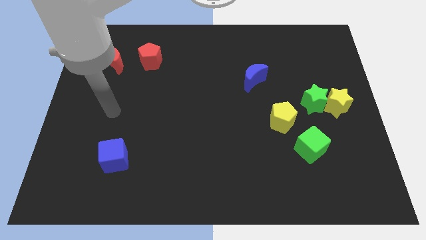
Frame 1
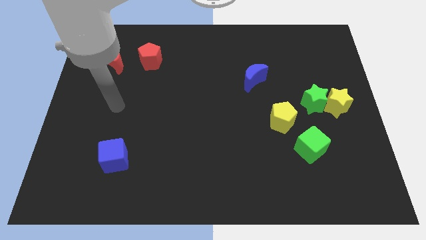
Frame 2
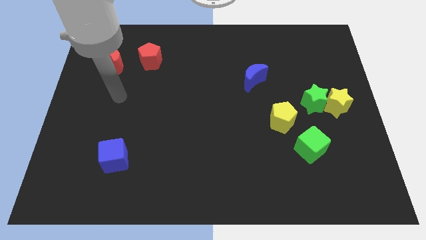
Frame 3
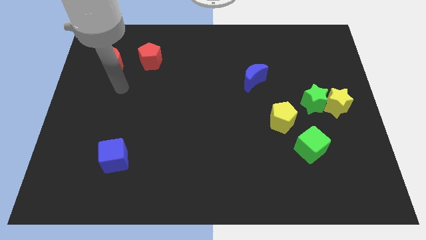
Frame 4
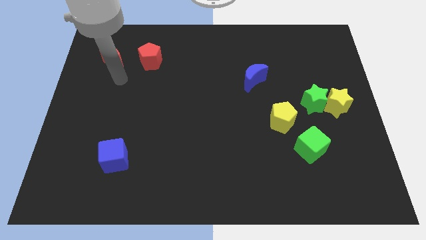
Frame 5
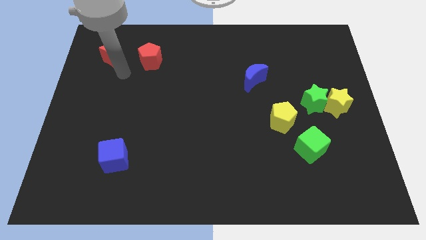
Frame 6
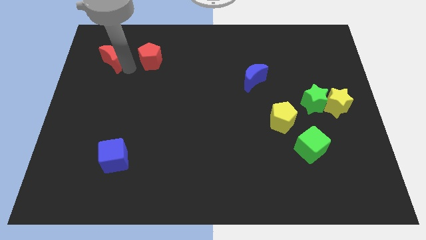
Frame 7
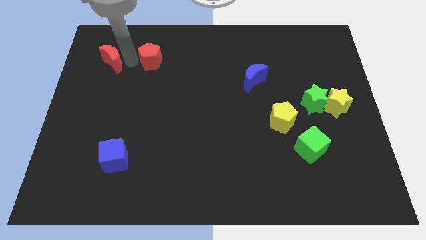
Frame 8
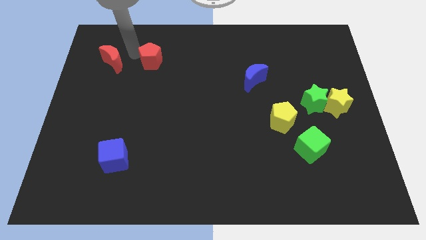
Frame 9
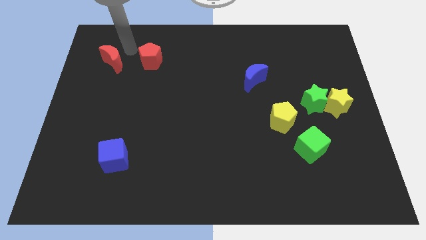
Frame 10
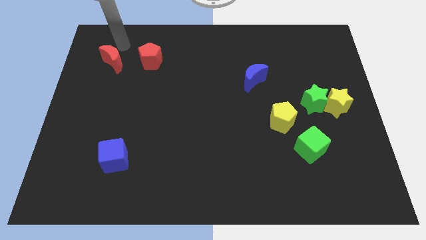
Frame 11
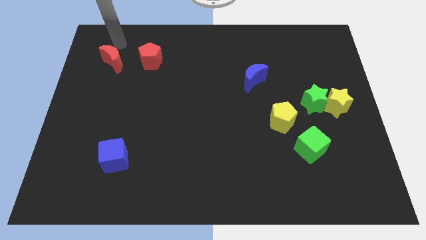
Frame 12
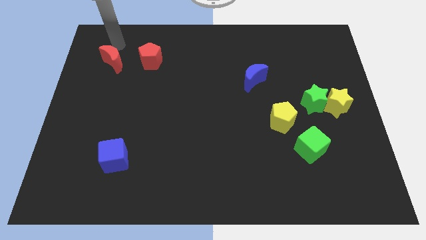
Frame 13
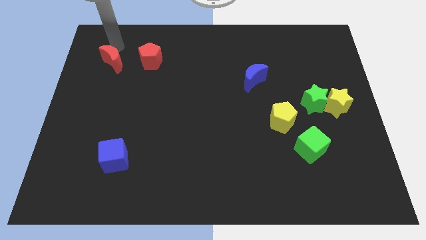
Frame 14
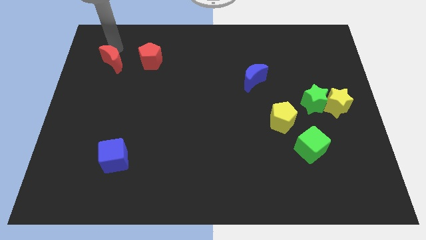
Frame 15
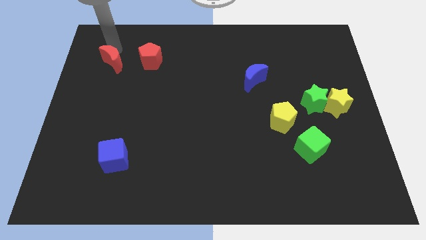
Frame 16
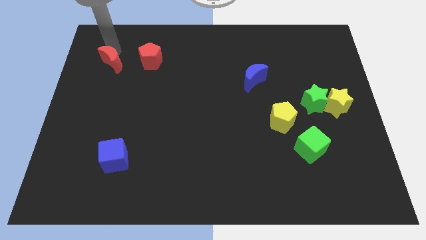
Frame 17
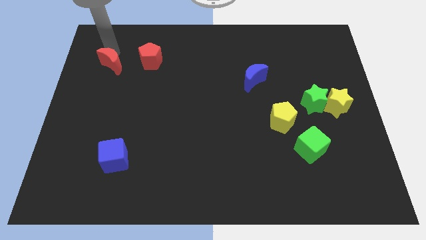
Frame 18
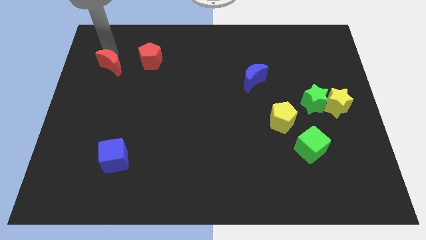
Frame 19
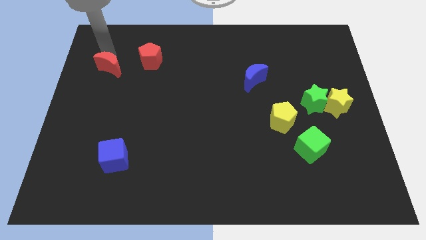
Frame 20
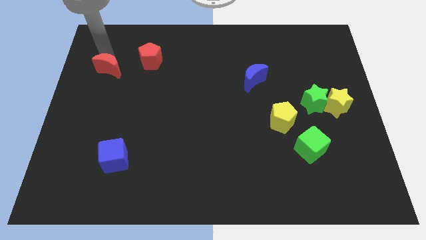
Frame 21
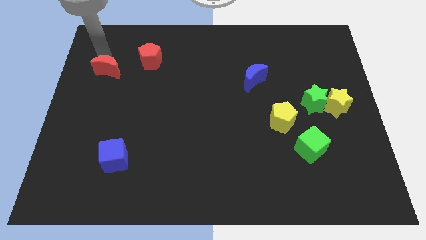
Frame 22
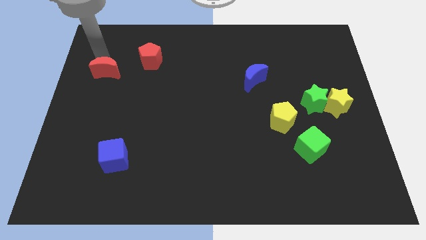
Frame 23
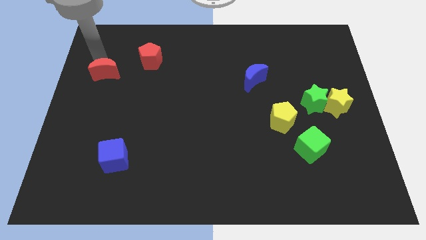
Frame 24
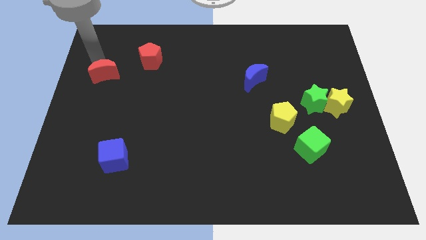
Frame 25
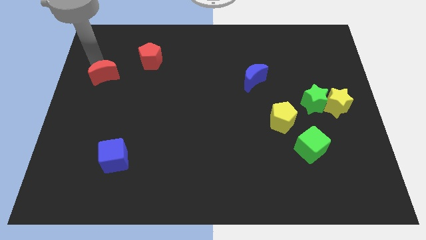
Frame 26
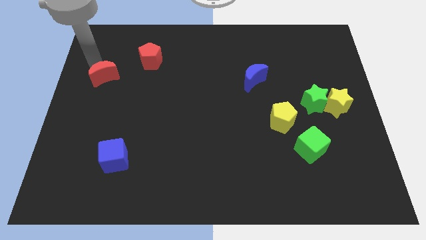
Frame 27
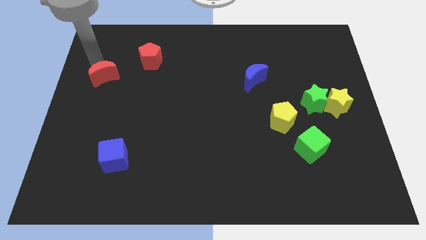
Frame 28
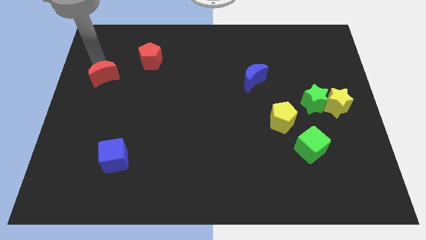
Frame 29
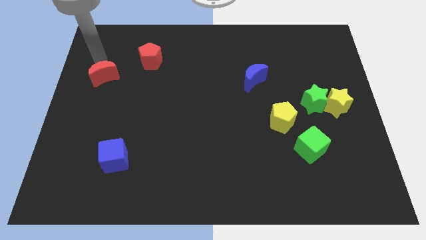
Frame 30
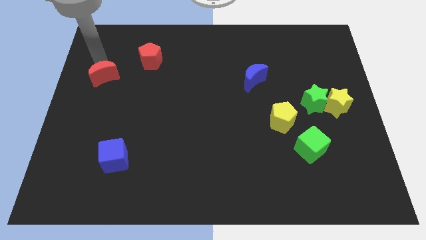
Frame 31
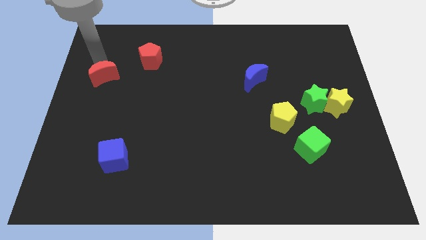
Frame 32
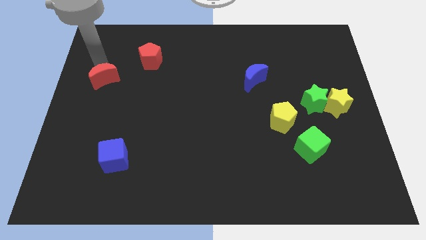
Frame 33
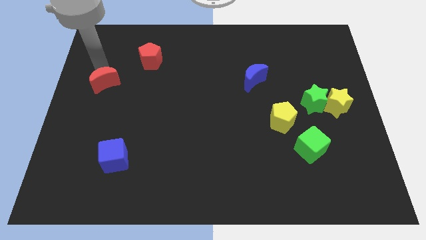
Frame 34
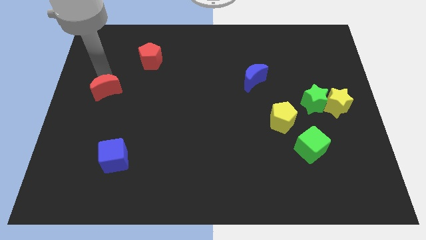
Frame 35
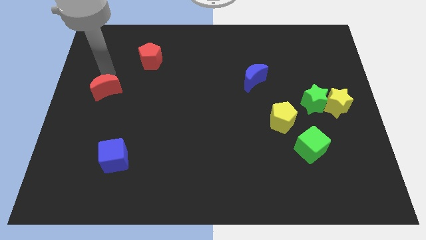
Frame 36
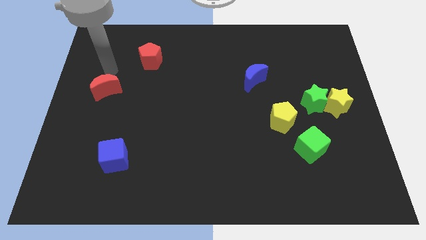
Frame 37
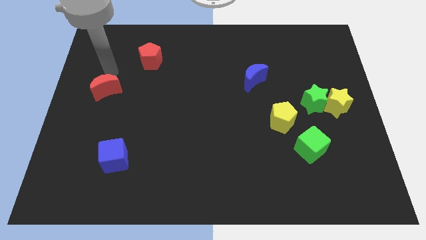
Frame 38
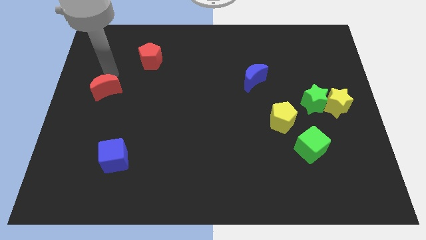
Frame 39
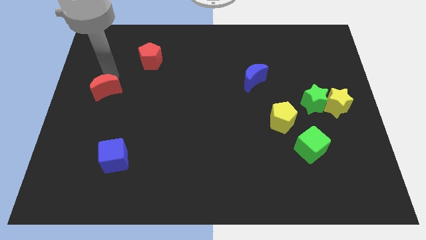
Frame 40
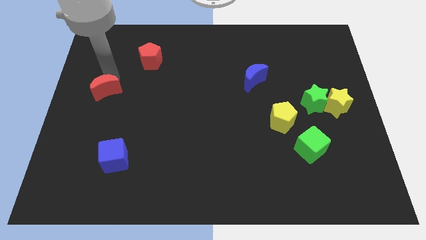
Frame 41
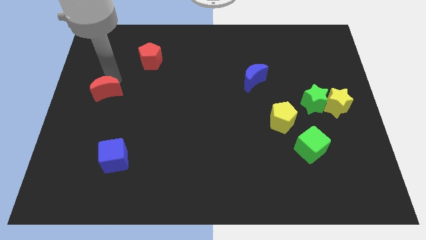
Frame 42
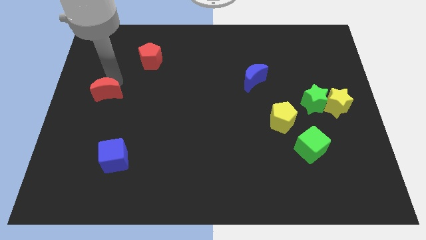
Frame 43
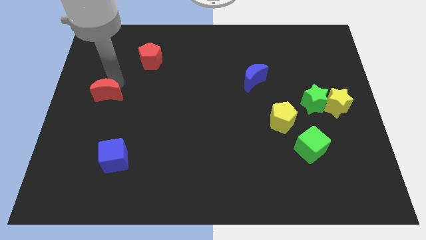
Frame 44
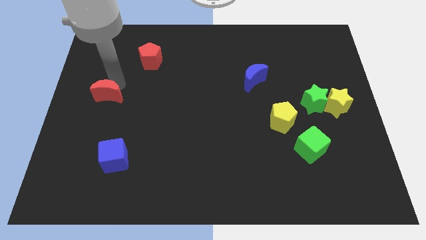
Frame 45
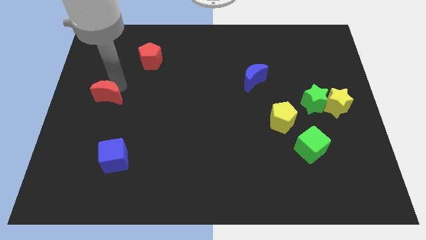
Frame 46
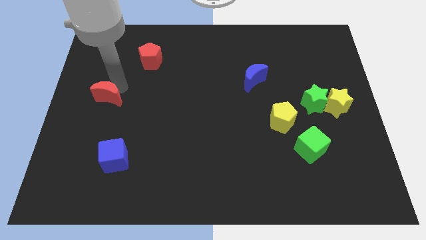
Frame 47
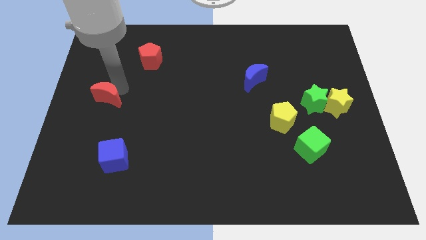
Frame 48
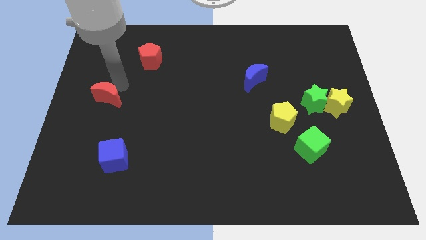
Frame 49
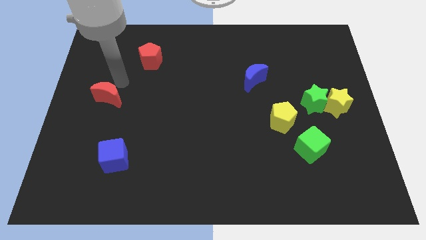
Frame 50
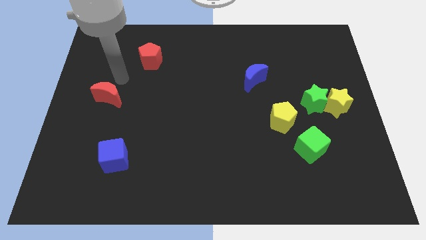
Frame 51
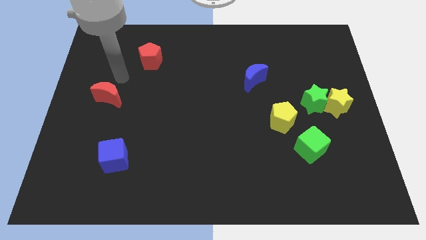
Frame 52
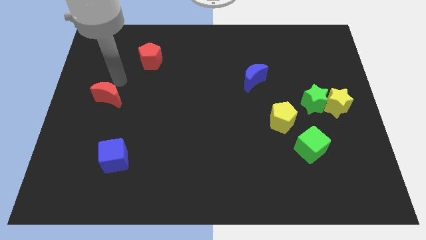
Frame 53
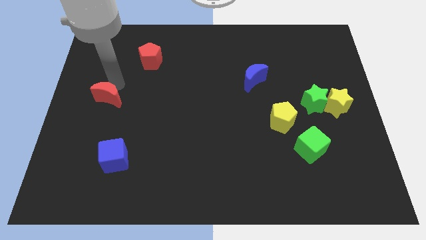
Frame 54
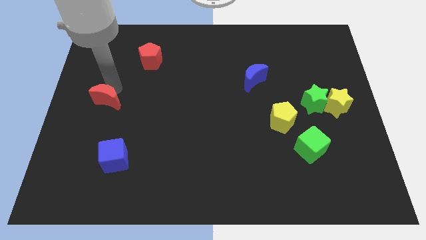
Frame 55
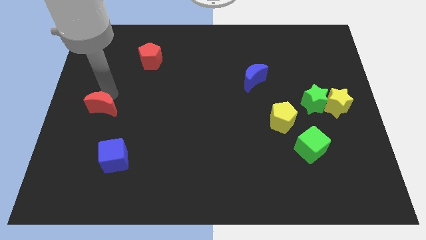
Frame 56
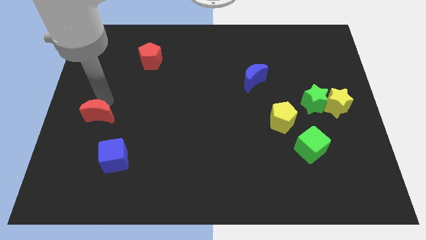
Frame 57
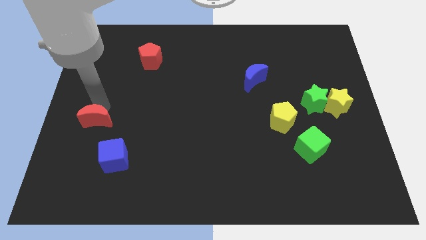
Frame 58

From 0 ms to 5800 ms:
put the red moon diagonally up and to the left of the blue cube
